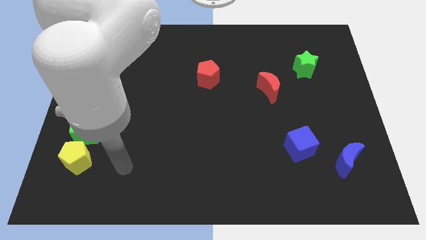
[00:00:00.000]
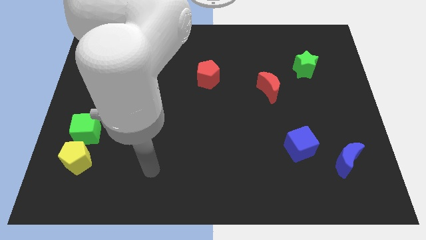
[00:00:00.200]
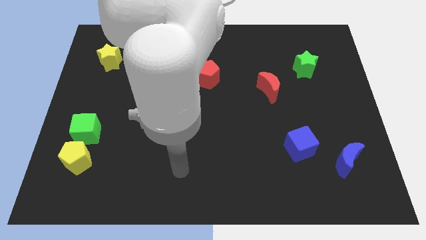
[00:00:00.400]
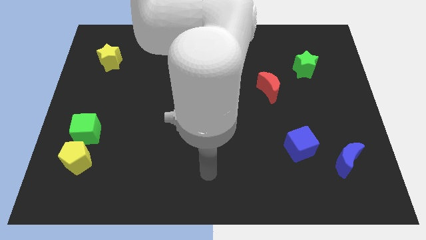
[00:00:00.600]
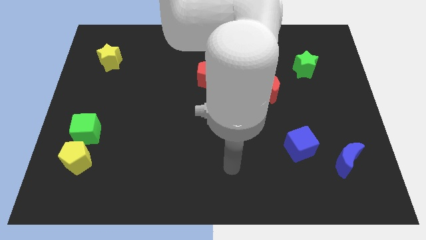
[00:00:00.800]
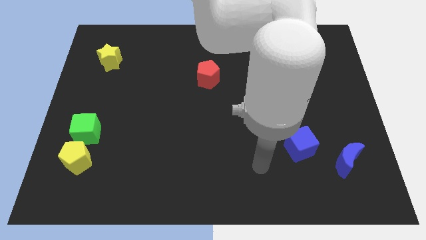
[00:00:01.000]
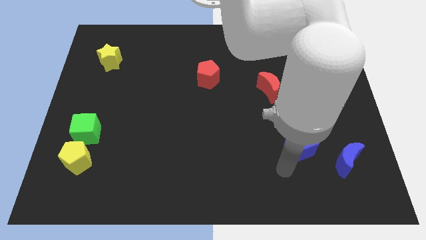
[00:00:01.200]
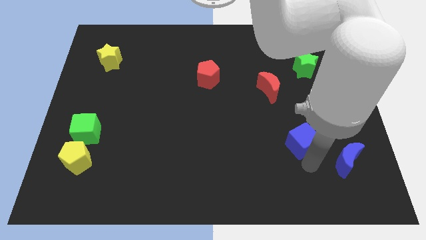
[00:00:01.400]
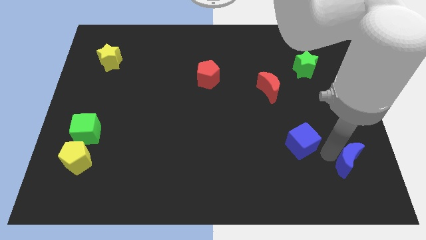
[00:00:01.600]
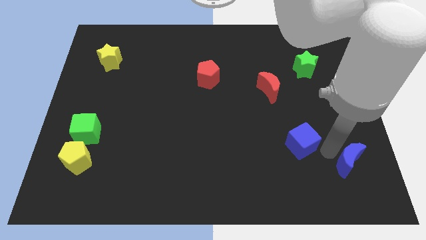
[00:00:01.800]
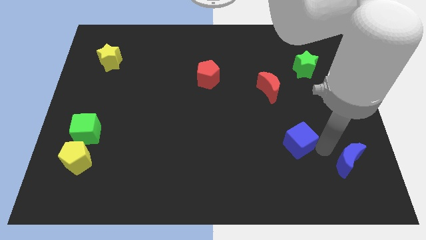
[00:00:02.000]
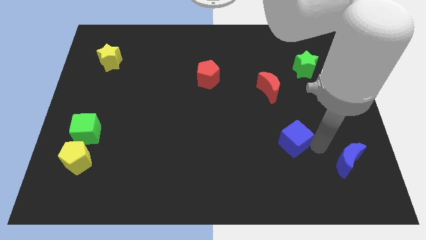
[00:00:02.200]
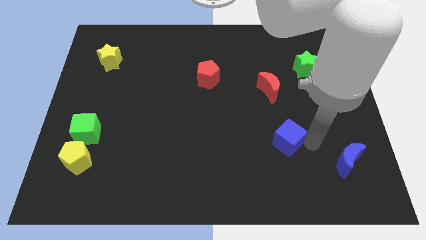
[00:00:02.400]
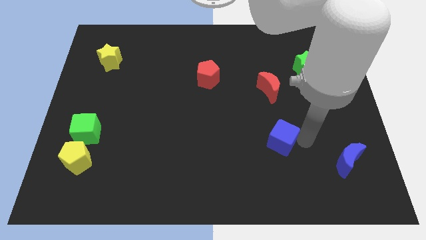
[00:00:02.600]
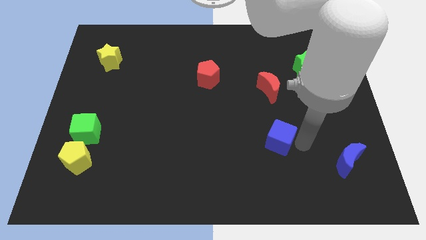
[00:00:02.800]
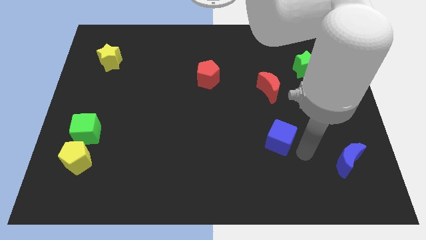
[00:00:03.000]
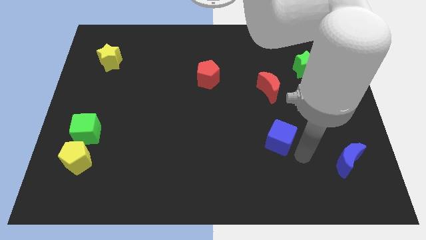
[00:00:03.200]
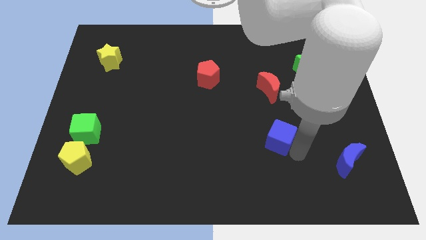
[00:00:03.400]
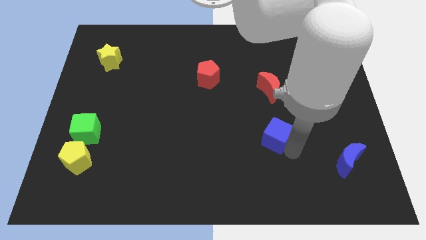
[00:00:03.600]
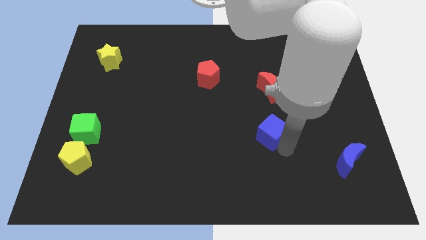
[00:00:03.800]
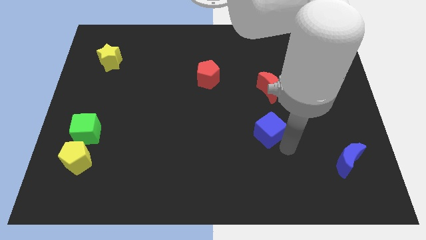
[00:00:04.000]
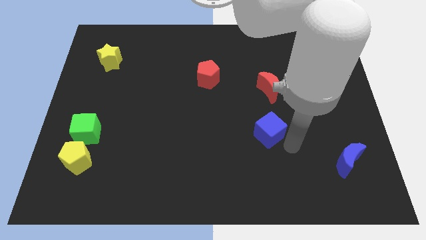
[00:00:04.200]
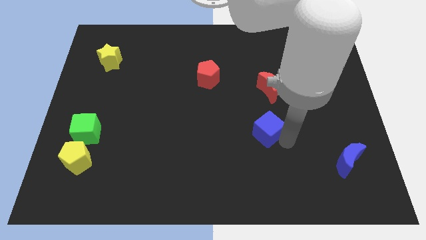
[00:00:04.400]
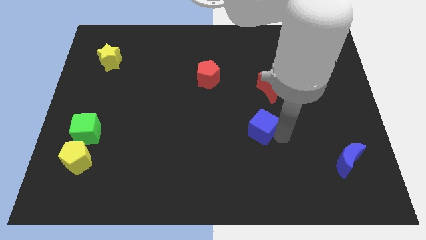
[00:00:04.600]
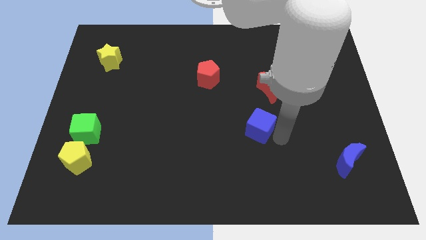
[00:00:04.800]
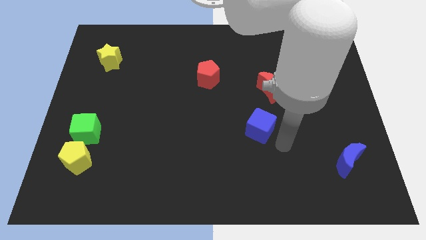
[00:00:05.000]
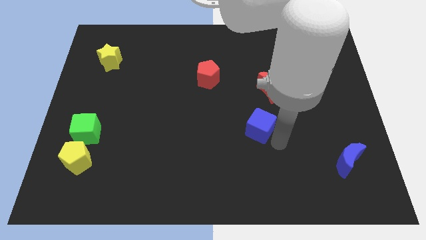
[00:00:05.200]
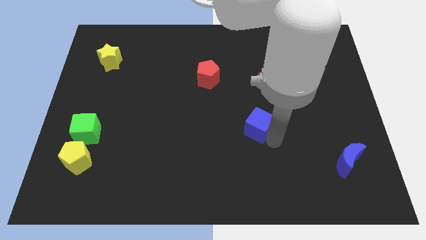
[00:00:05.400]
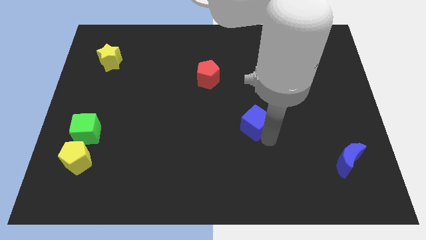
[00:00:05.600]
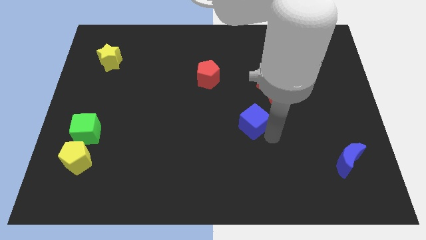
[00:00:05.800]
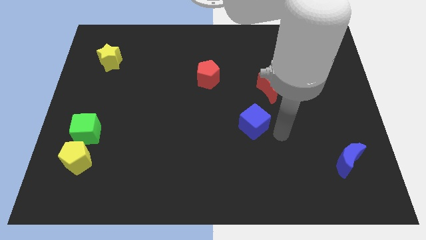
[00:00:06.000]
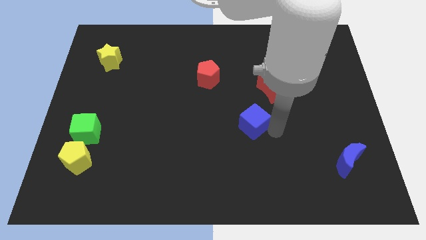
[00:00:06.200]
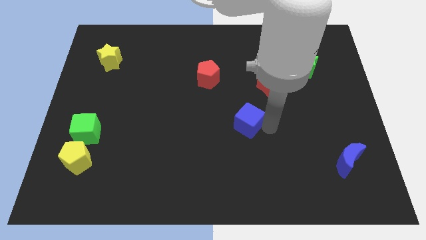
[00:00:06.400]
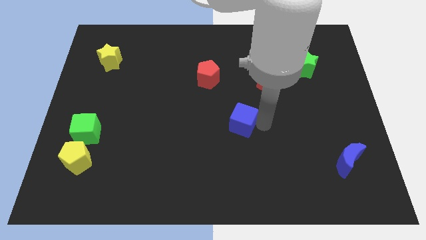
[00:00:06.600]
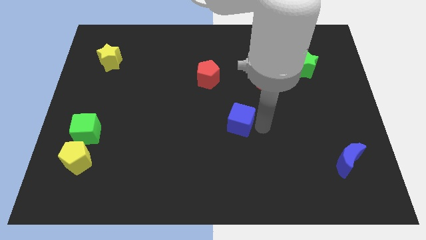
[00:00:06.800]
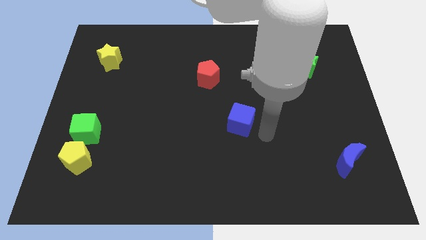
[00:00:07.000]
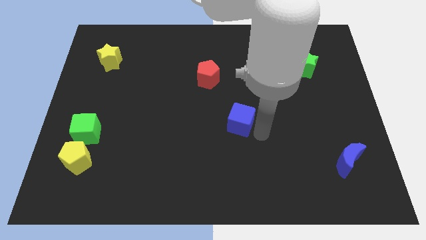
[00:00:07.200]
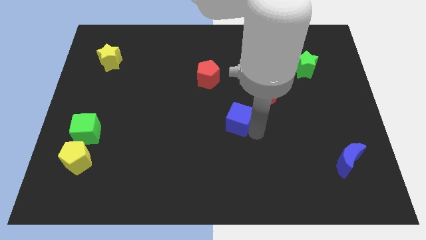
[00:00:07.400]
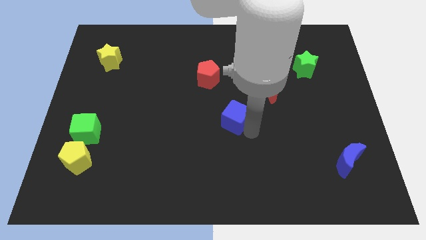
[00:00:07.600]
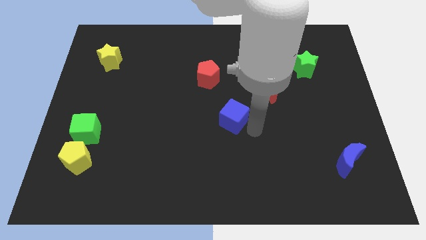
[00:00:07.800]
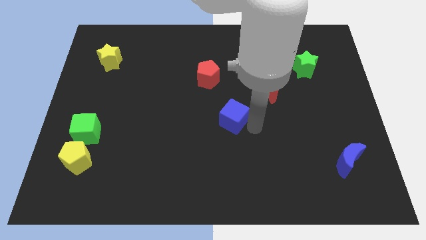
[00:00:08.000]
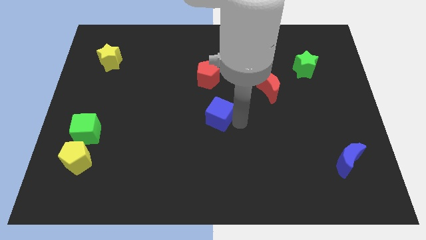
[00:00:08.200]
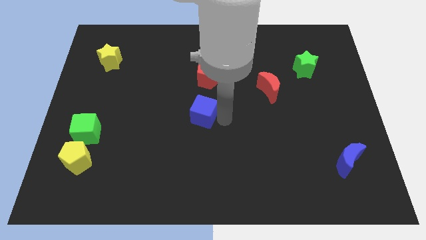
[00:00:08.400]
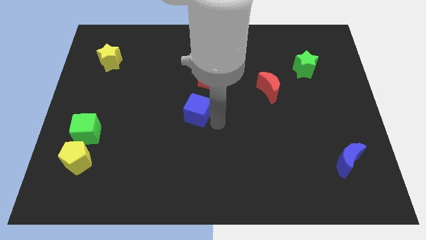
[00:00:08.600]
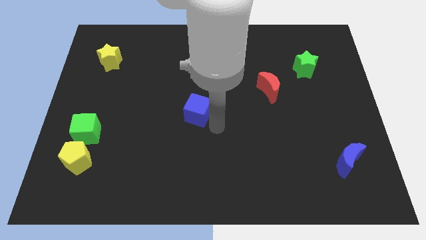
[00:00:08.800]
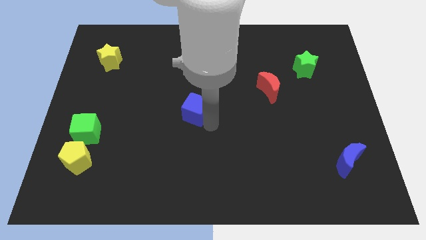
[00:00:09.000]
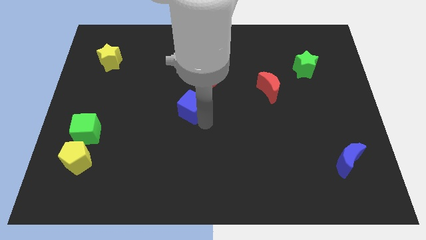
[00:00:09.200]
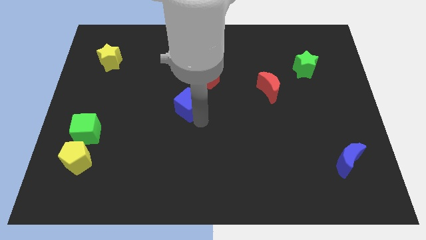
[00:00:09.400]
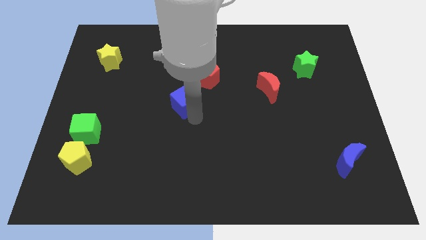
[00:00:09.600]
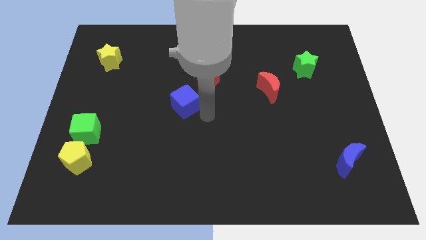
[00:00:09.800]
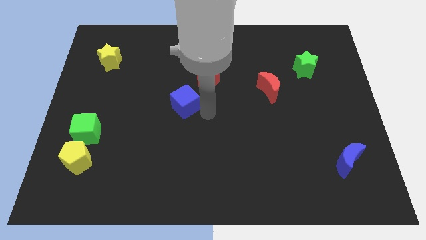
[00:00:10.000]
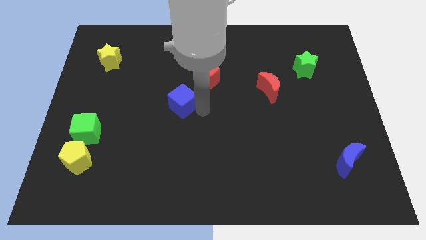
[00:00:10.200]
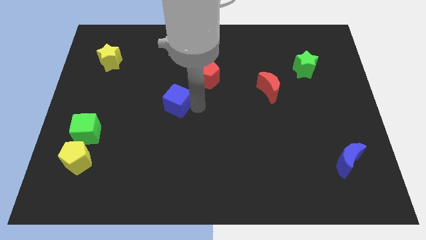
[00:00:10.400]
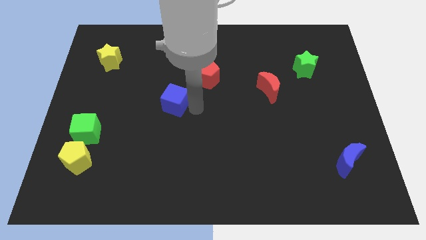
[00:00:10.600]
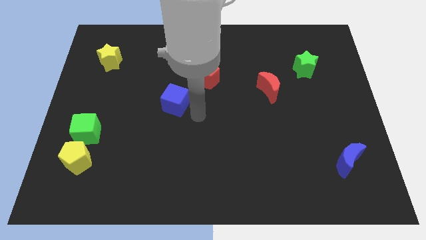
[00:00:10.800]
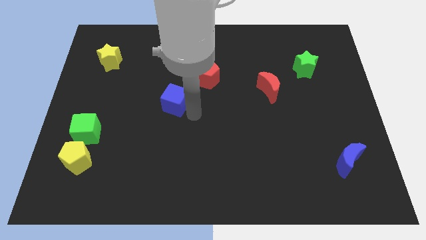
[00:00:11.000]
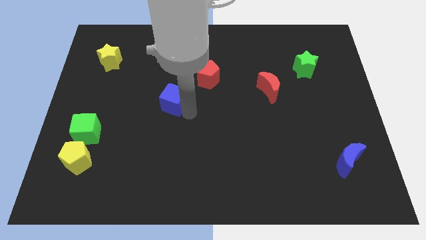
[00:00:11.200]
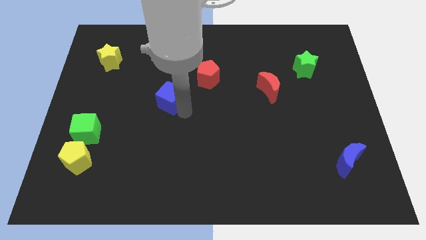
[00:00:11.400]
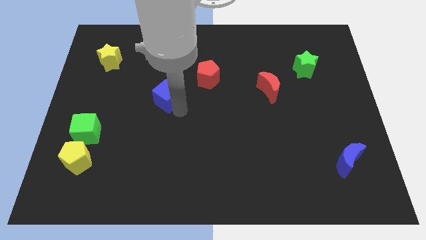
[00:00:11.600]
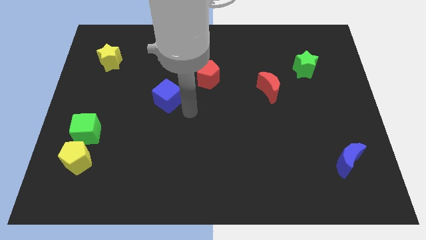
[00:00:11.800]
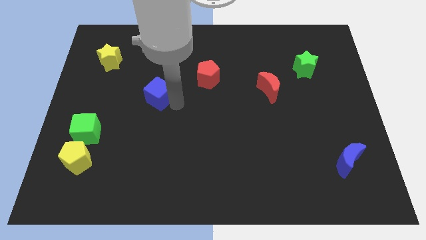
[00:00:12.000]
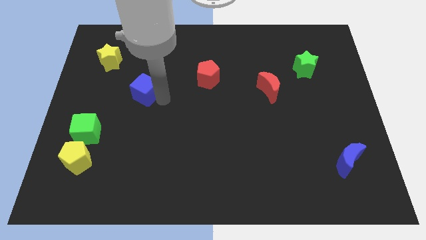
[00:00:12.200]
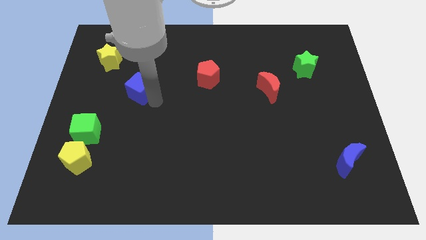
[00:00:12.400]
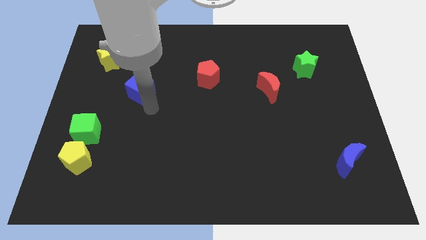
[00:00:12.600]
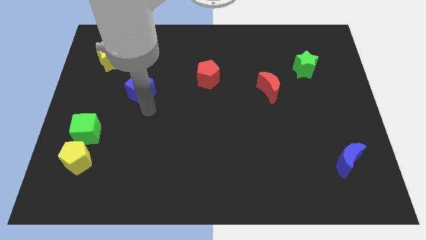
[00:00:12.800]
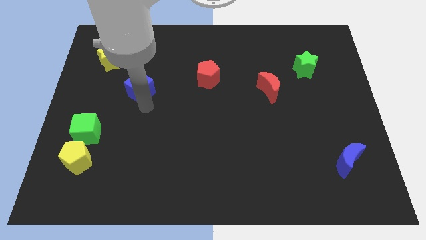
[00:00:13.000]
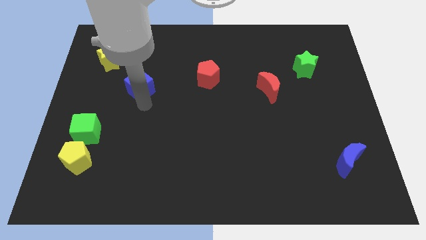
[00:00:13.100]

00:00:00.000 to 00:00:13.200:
put the blue cube to the bottom right of the yellow star

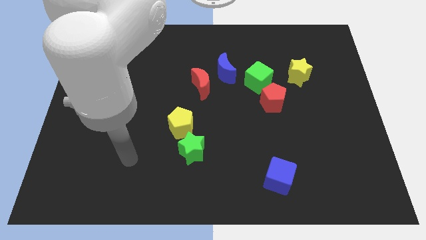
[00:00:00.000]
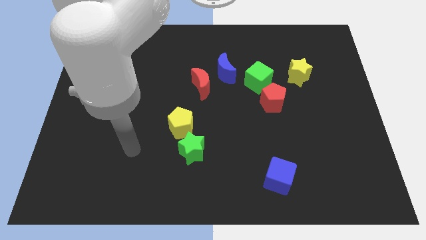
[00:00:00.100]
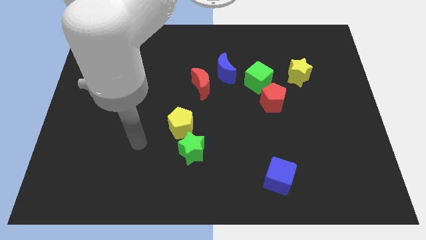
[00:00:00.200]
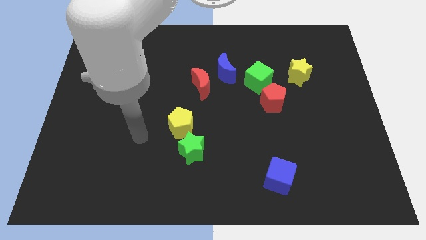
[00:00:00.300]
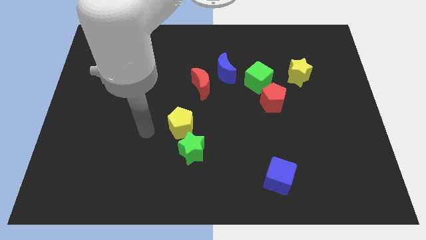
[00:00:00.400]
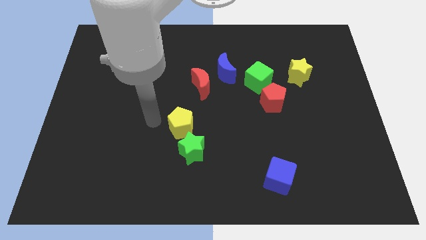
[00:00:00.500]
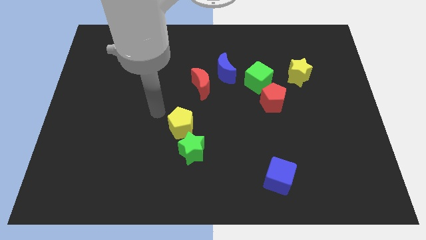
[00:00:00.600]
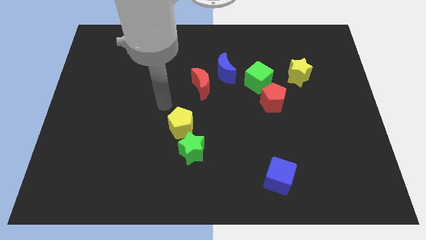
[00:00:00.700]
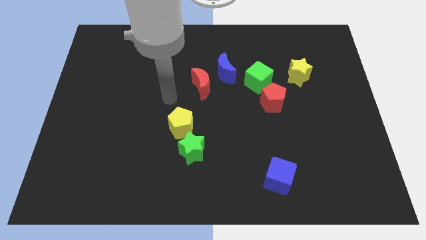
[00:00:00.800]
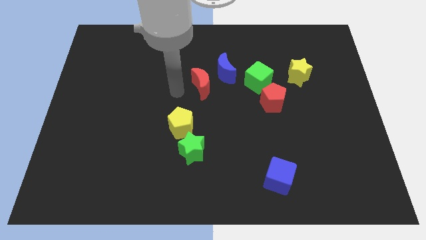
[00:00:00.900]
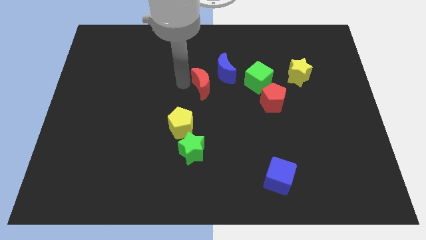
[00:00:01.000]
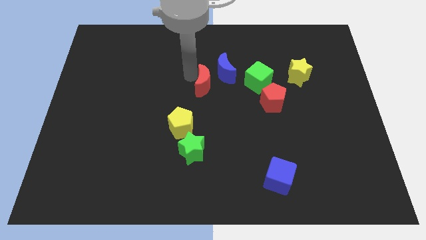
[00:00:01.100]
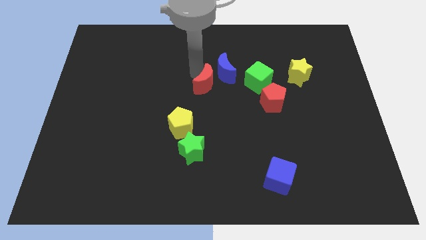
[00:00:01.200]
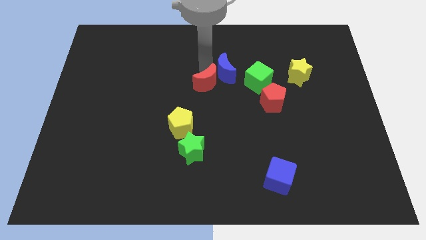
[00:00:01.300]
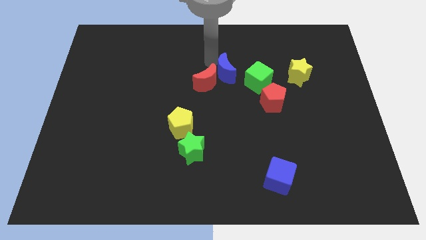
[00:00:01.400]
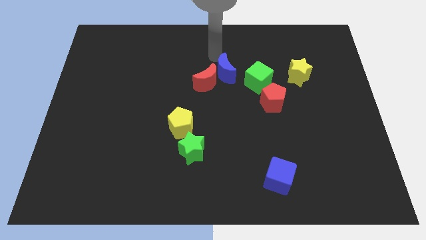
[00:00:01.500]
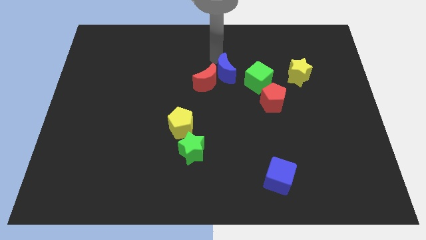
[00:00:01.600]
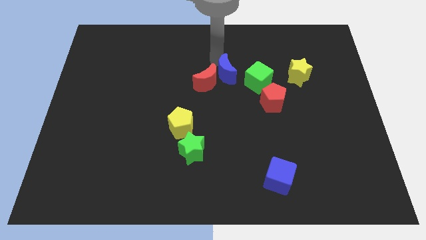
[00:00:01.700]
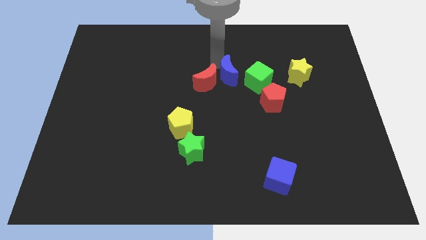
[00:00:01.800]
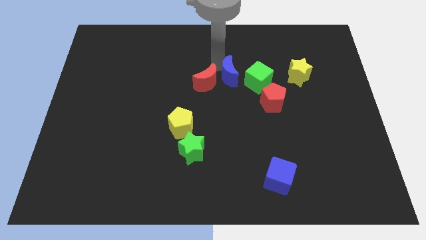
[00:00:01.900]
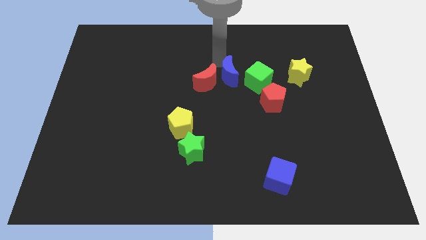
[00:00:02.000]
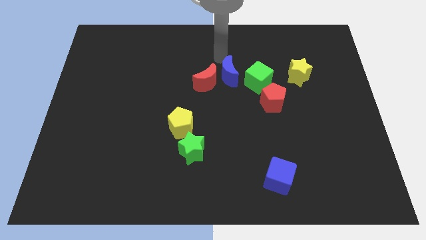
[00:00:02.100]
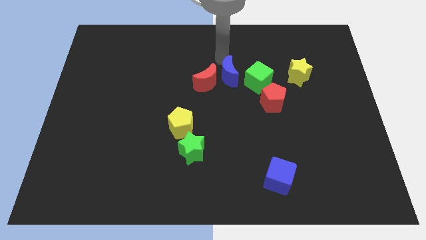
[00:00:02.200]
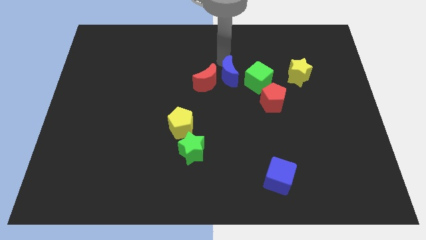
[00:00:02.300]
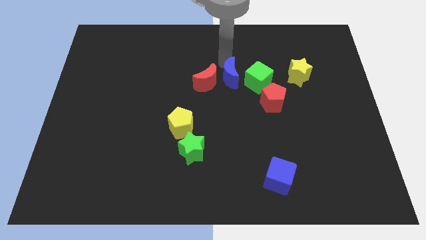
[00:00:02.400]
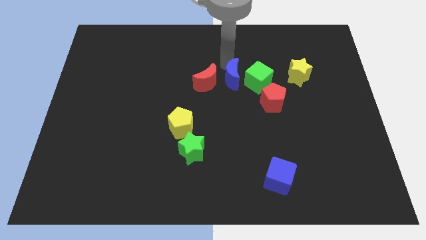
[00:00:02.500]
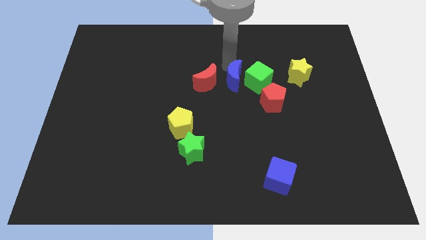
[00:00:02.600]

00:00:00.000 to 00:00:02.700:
slide the blue moon diagonally down and to the left of the green cube
